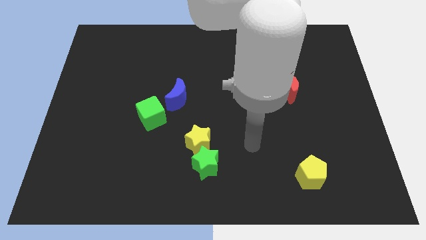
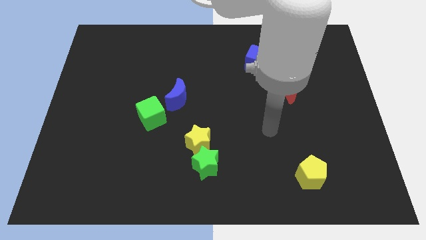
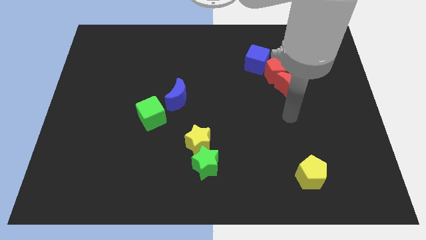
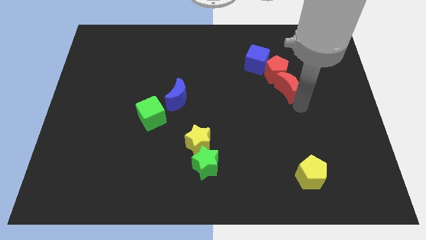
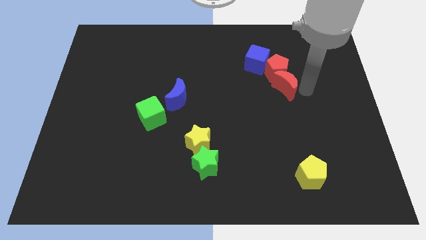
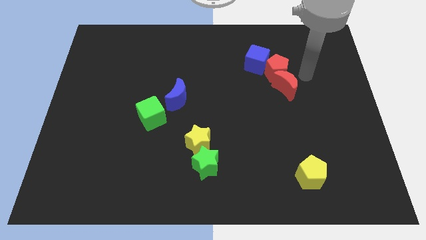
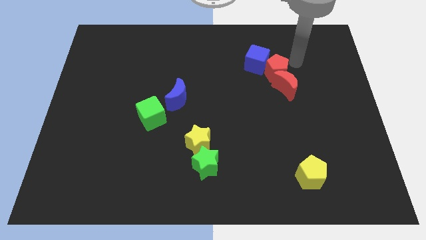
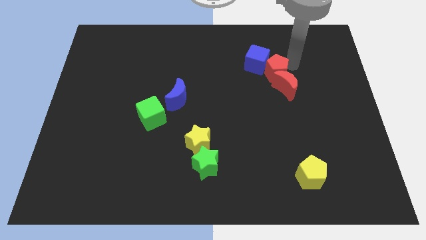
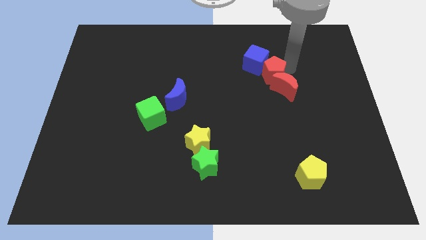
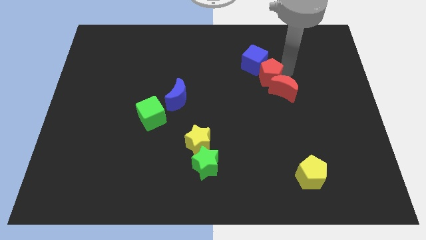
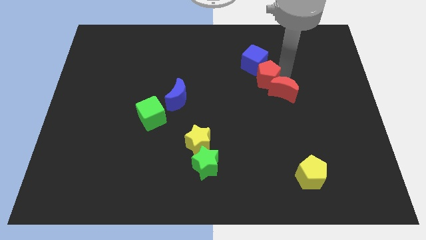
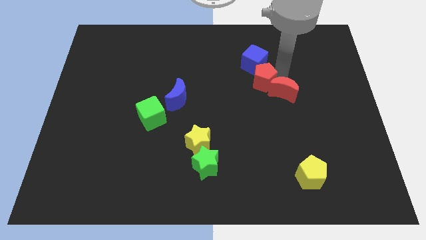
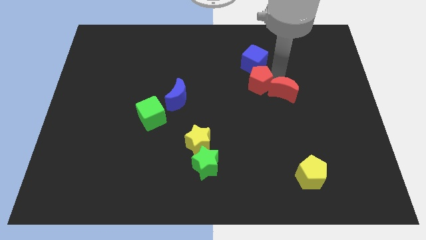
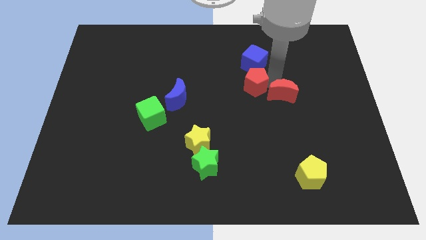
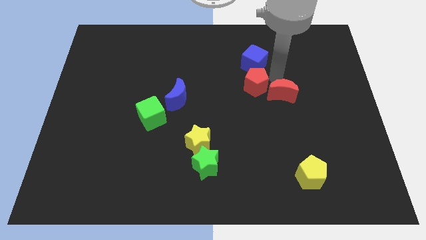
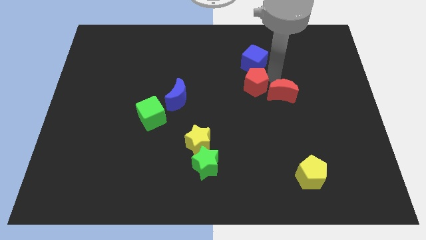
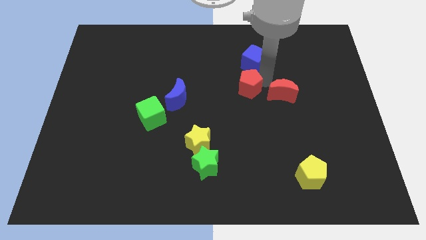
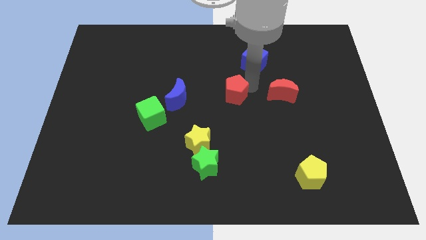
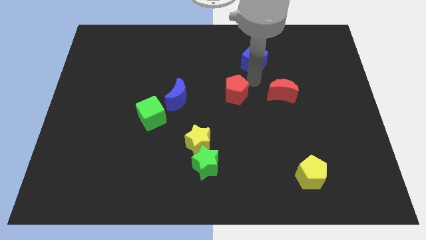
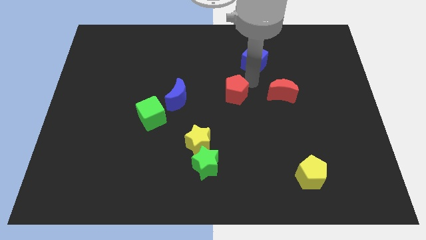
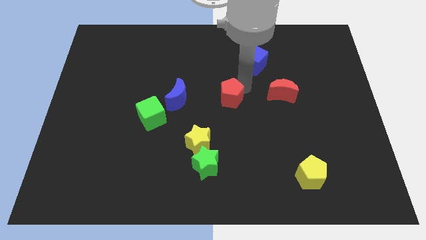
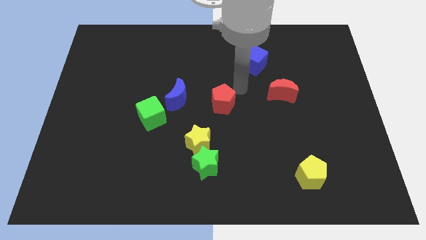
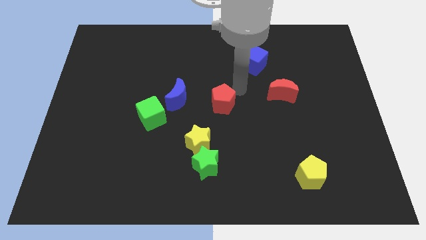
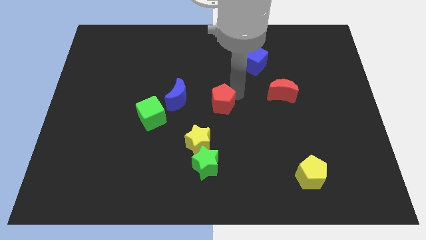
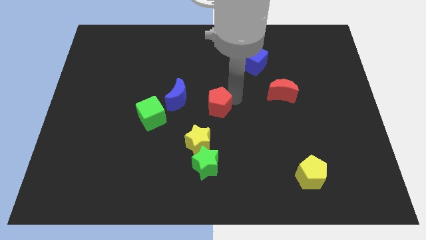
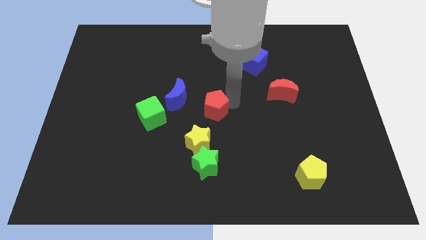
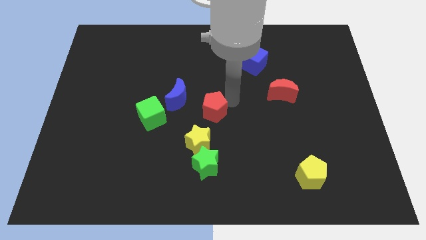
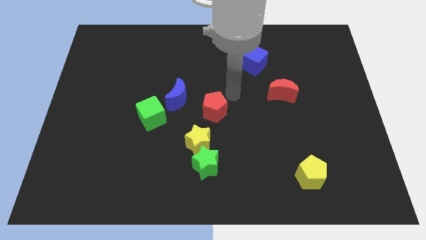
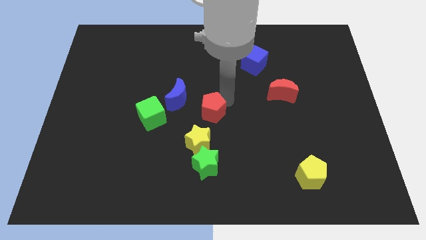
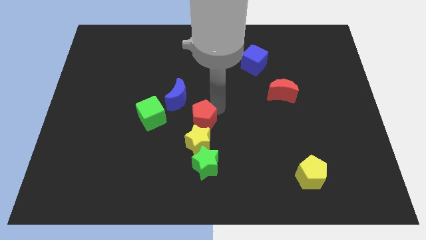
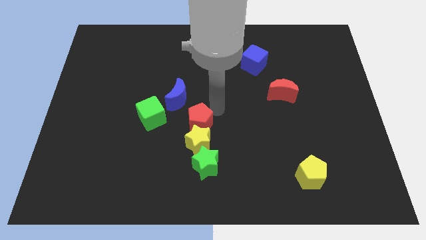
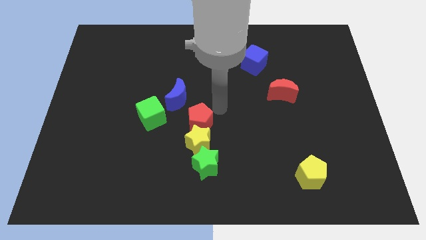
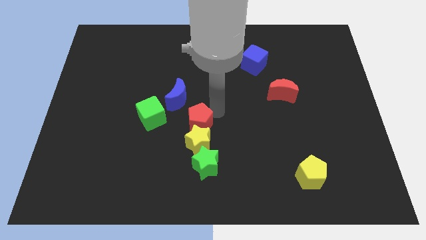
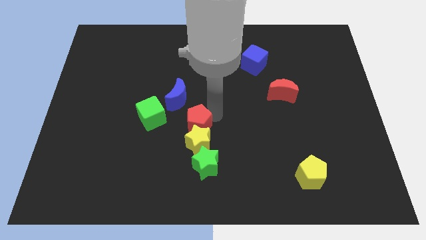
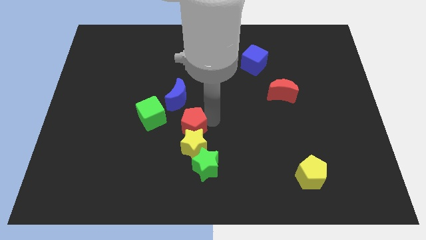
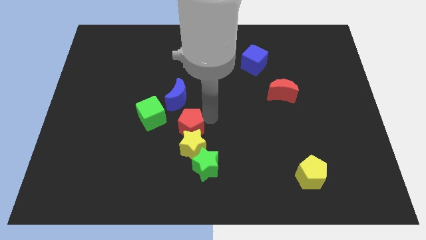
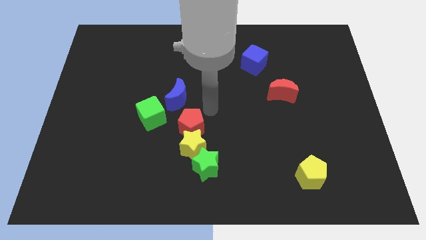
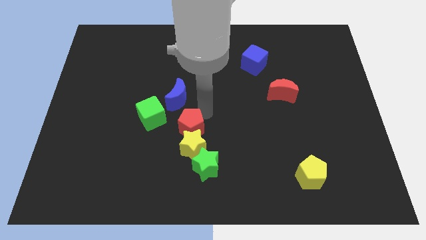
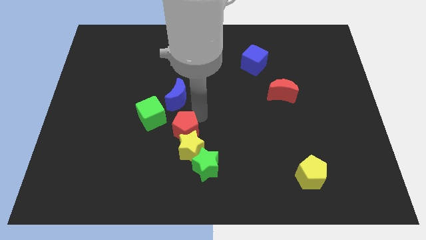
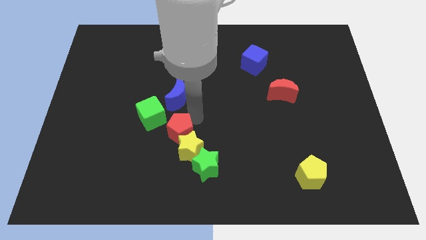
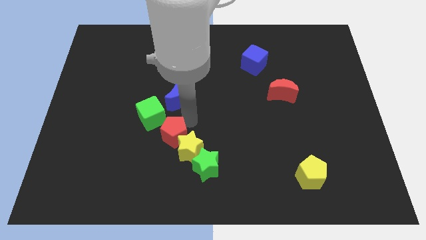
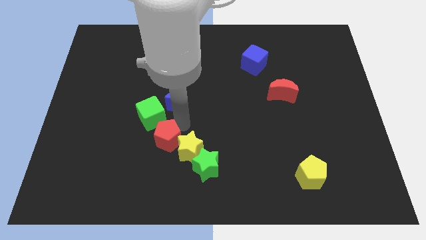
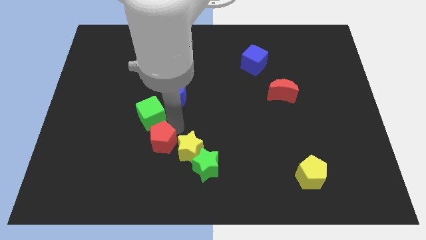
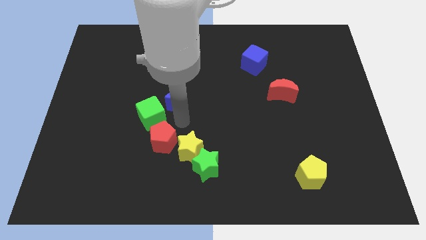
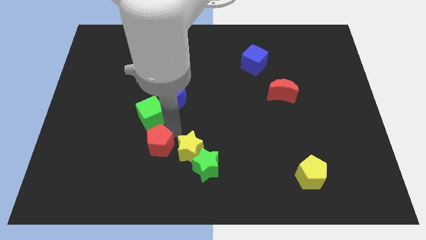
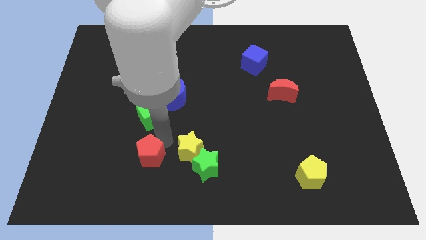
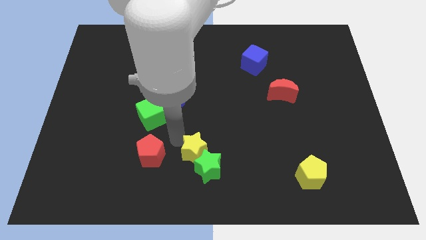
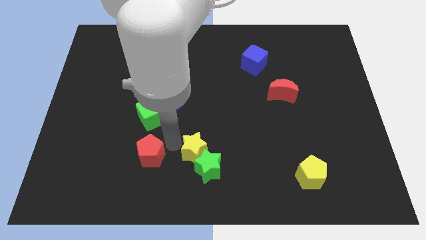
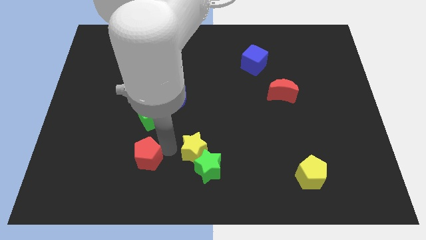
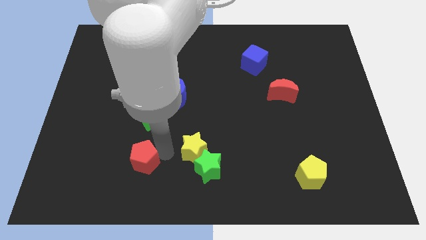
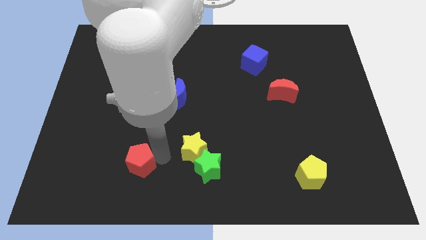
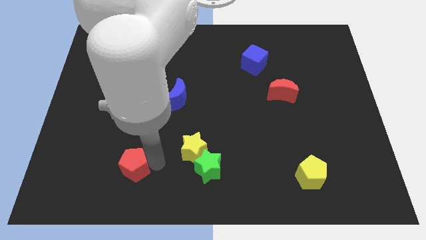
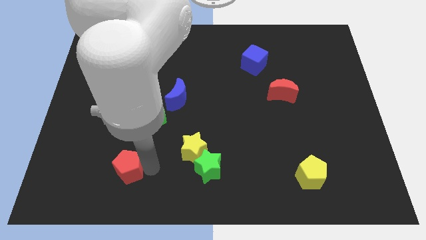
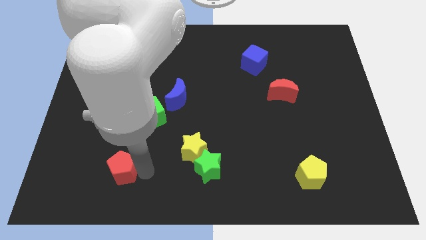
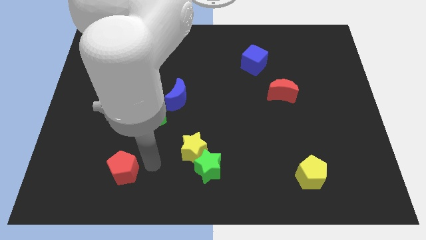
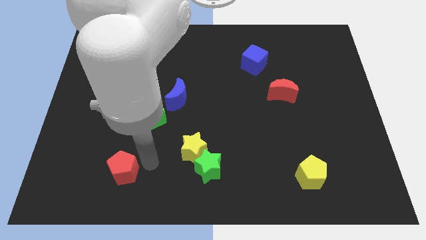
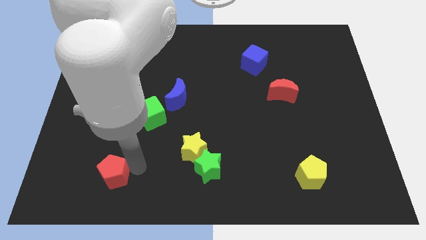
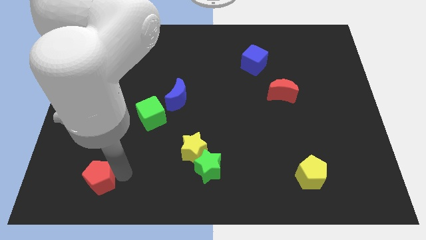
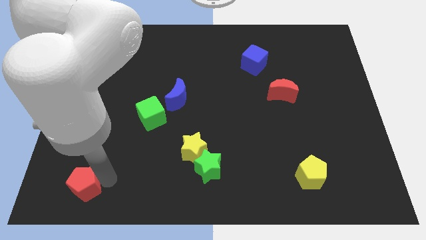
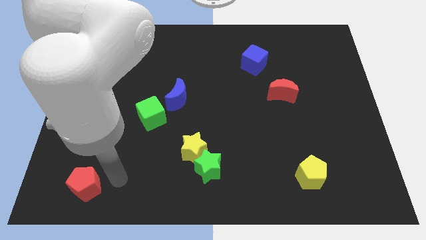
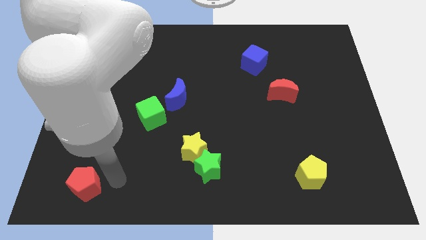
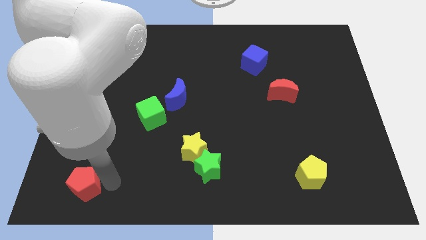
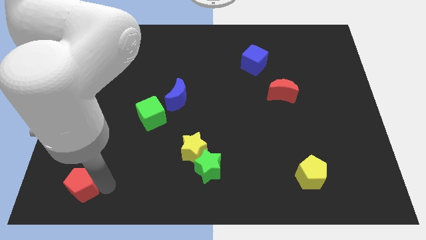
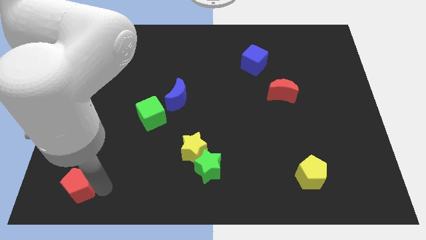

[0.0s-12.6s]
move the red pentagon to the lower left corner
